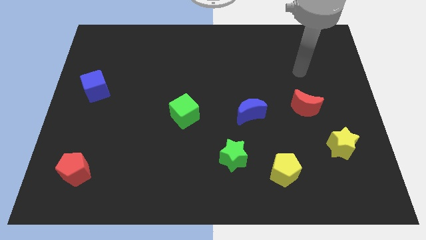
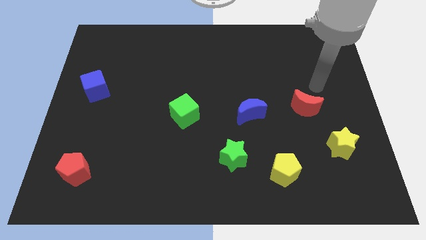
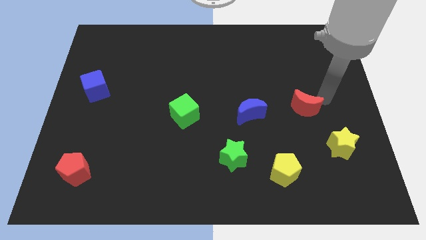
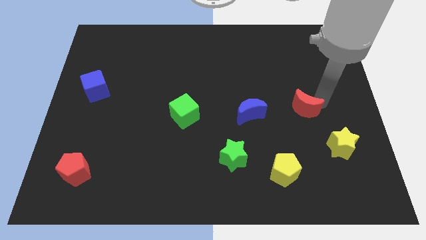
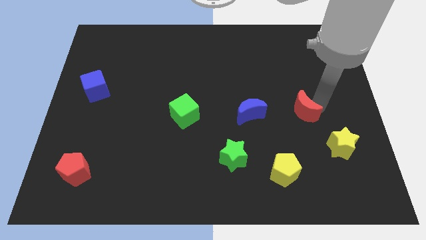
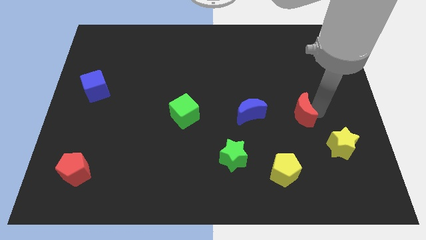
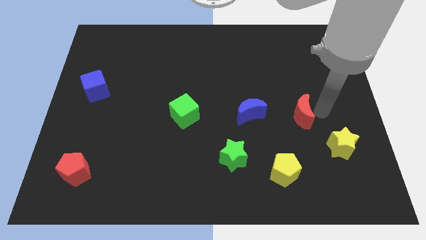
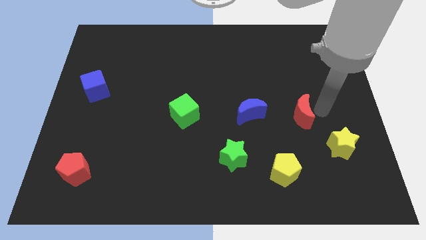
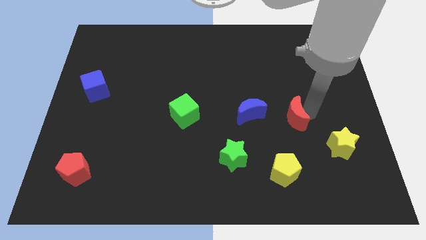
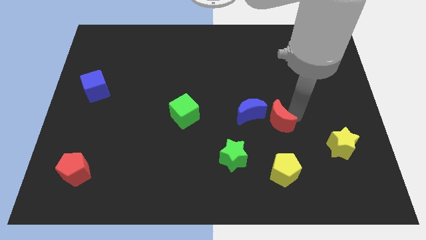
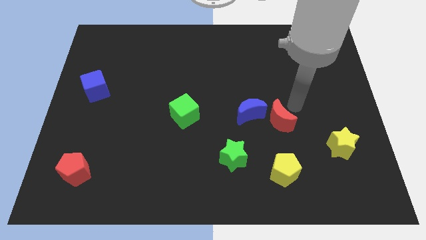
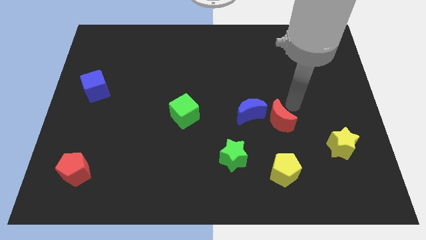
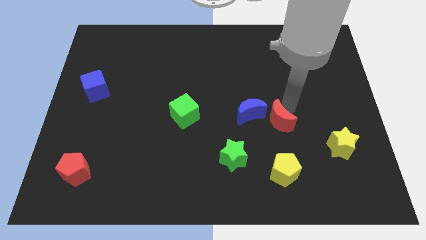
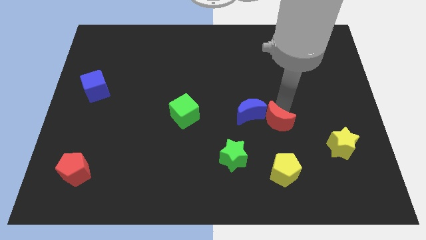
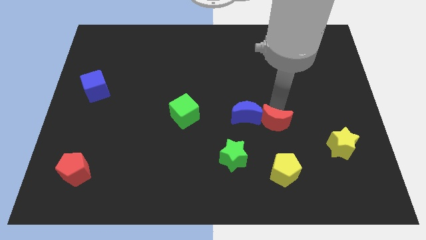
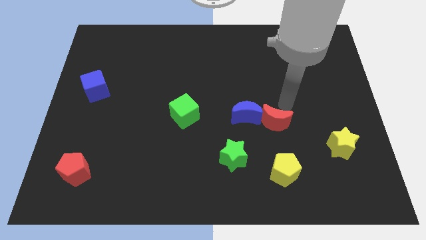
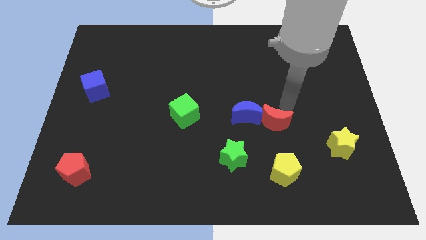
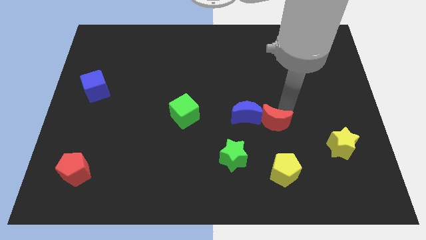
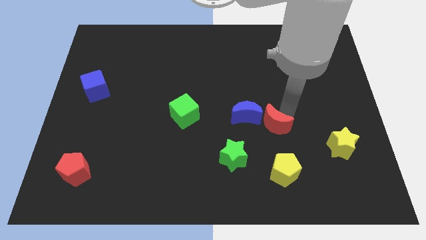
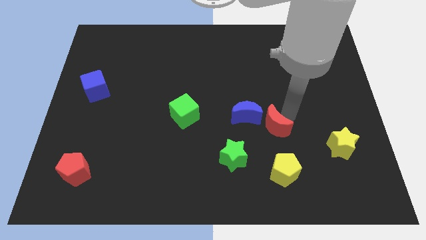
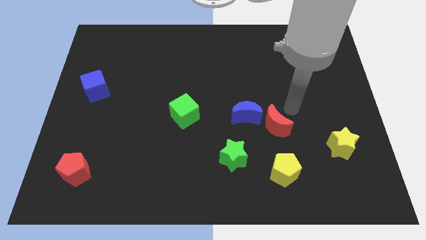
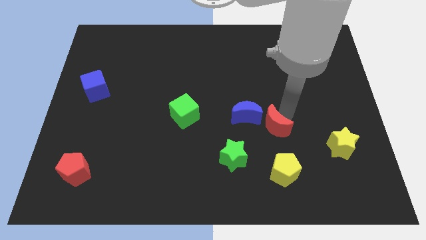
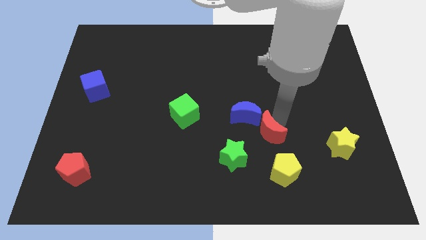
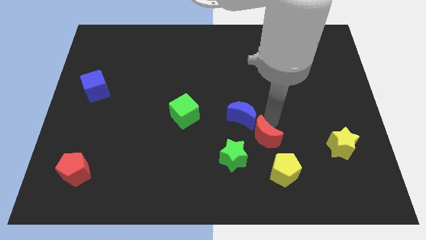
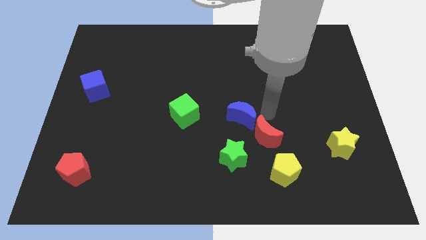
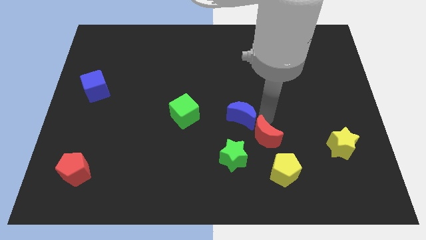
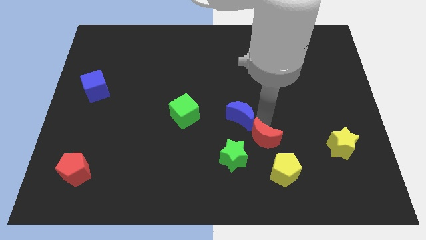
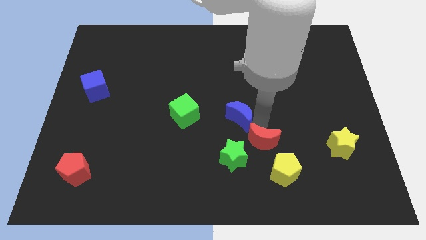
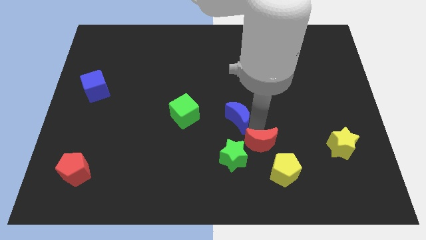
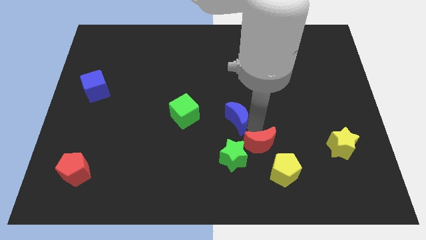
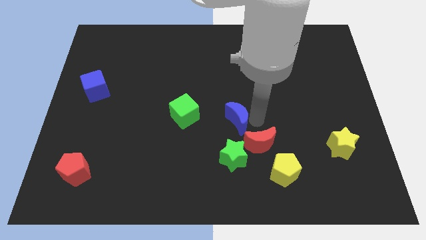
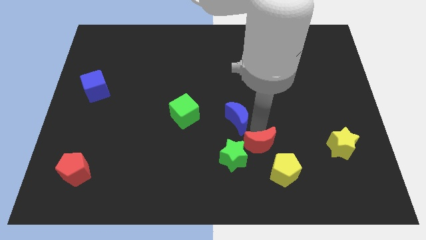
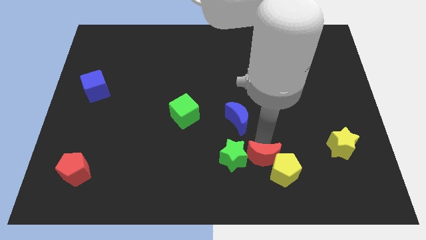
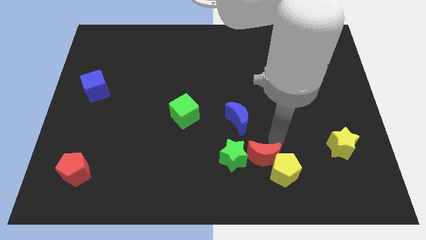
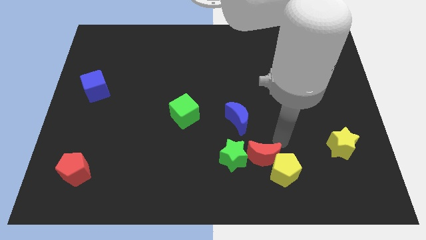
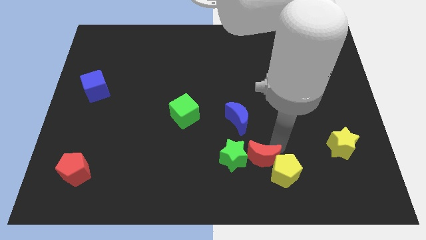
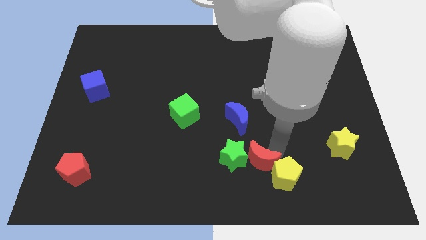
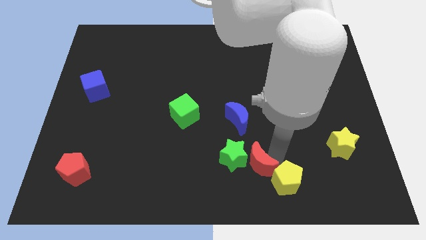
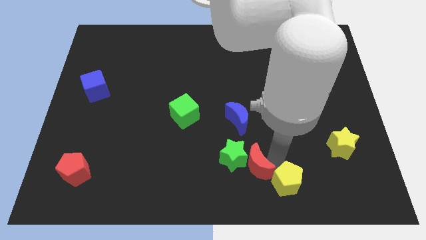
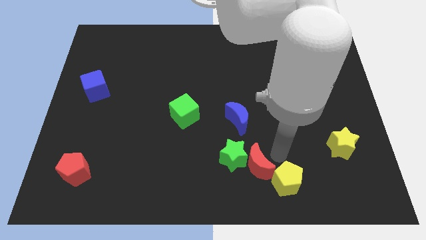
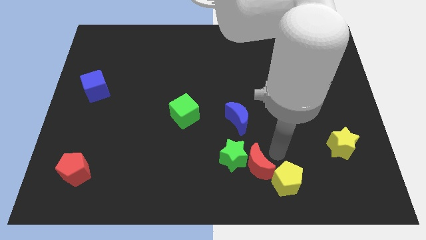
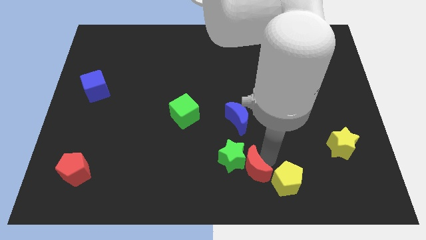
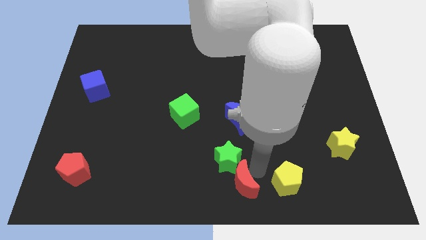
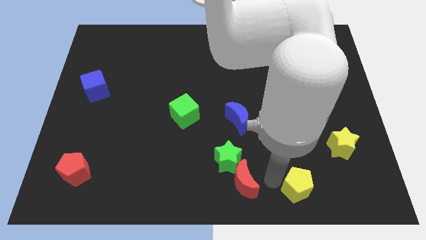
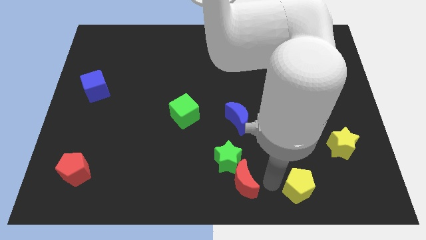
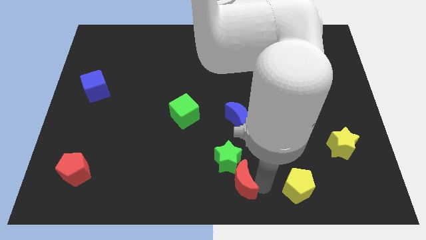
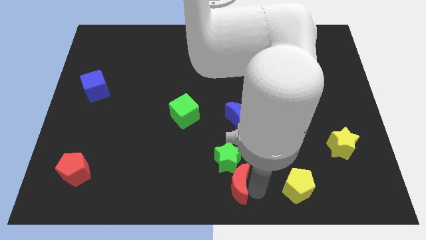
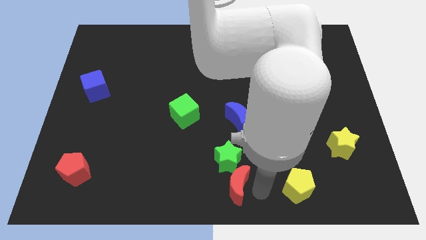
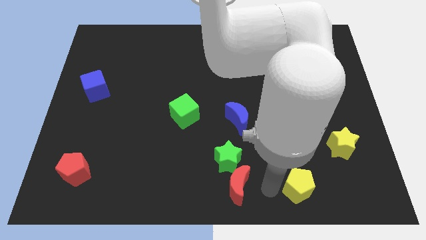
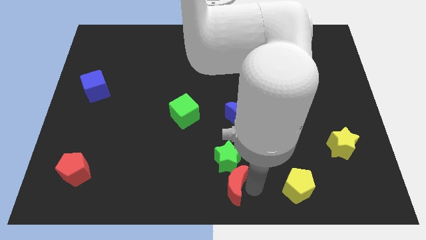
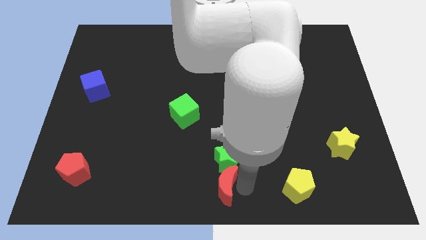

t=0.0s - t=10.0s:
move the red moon to the bottom left side of the green star

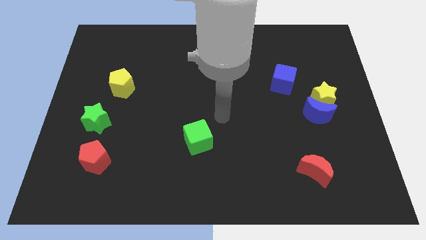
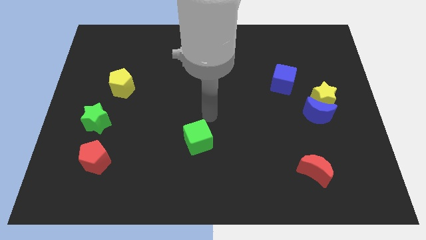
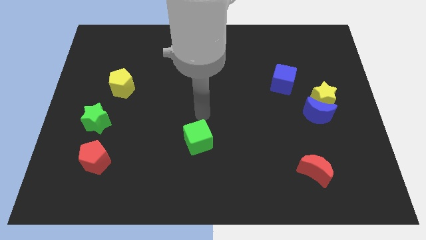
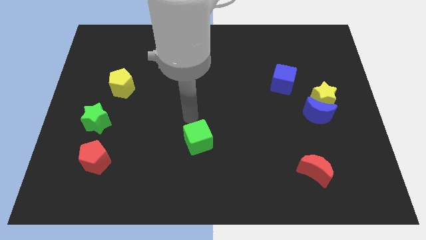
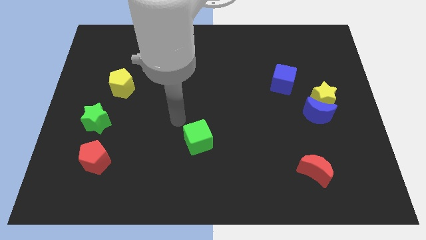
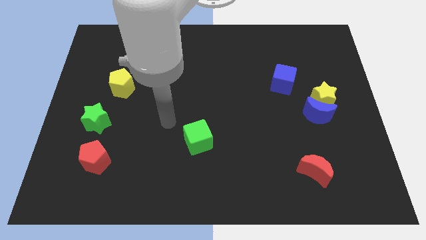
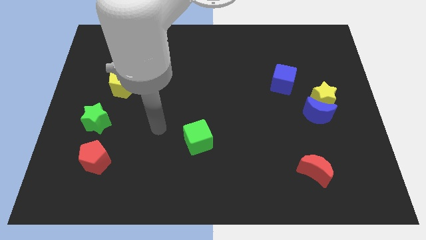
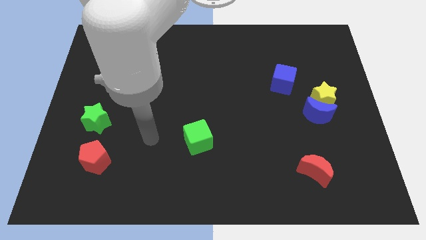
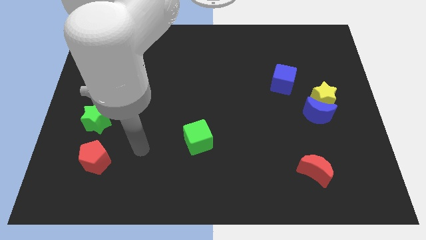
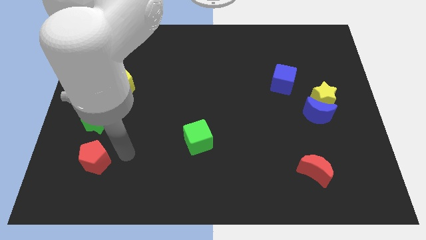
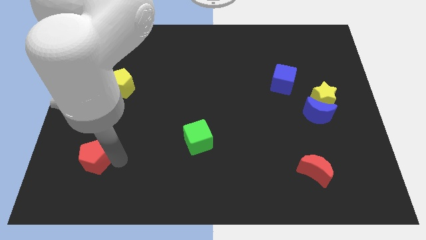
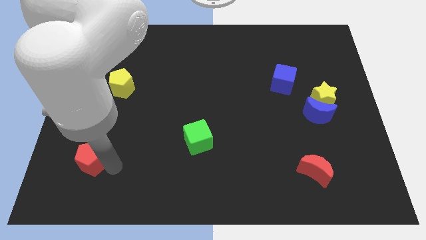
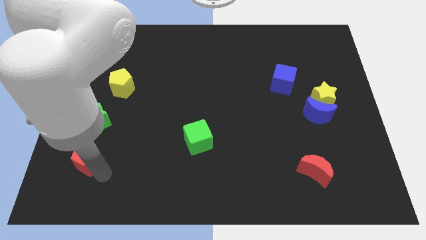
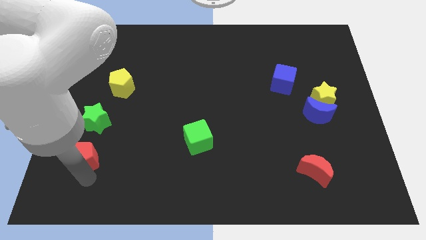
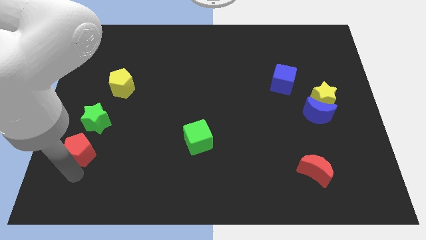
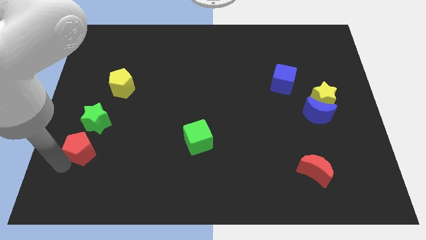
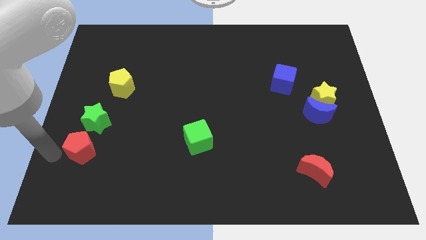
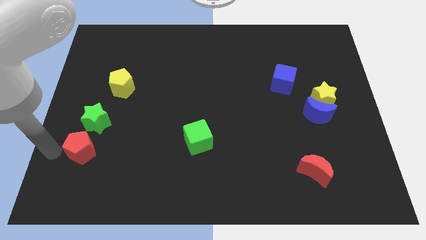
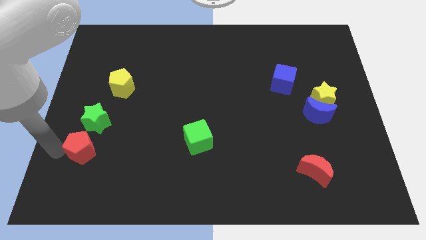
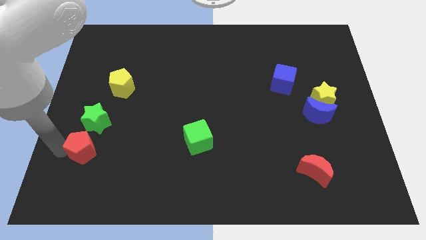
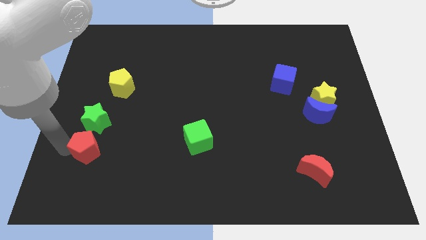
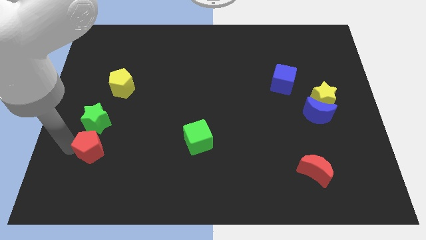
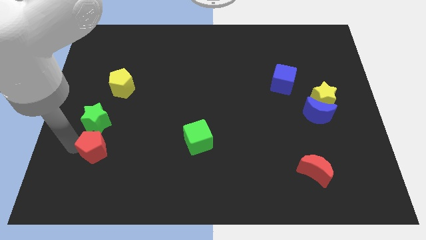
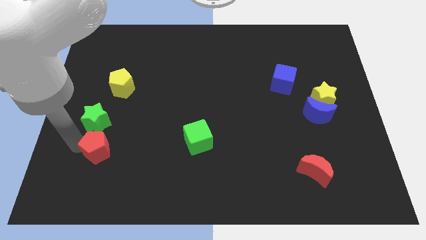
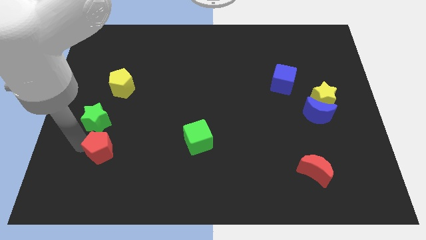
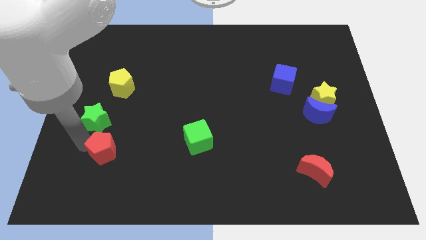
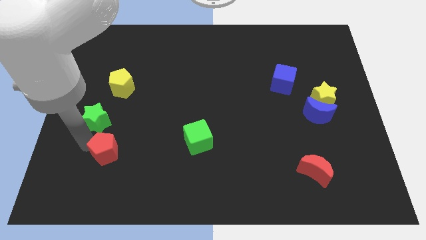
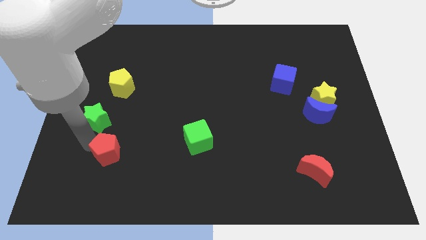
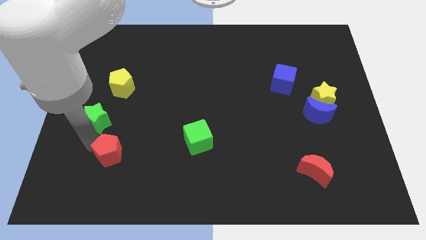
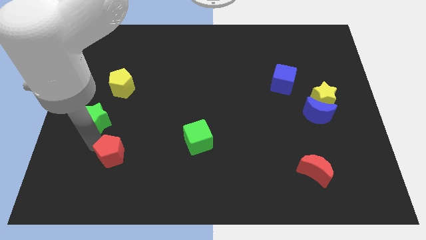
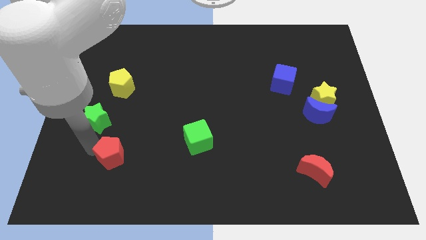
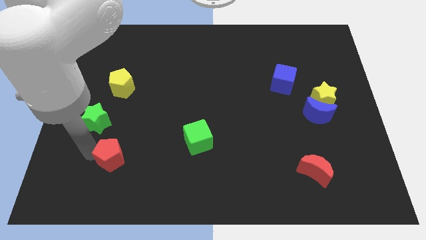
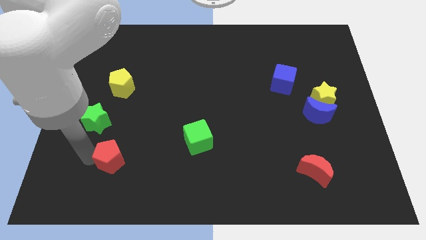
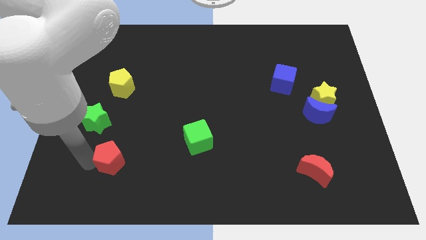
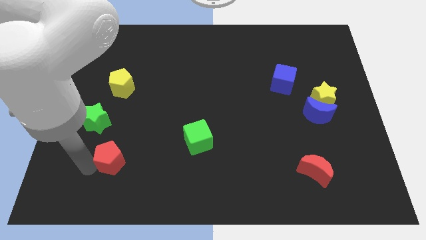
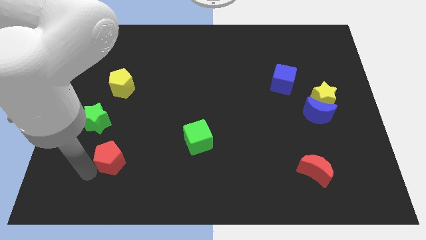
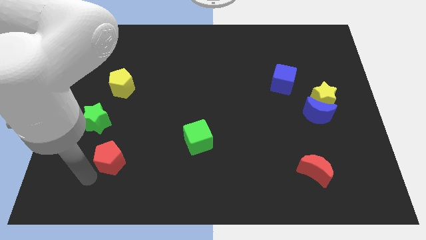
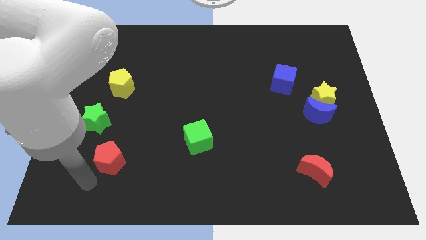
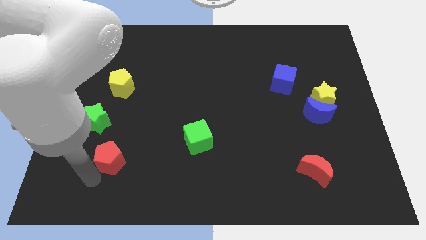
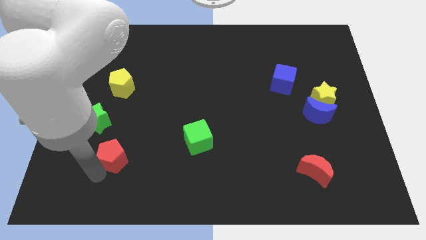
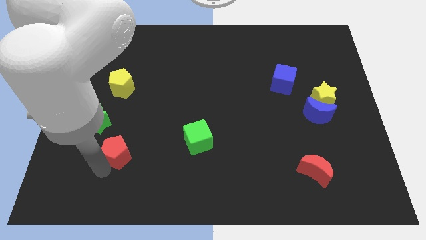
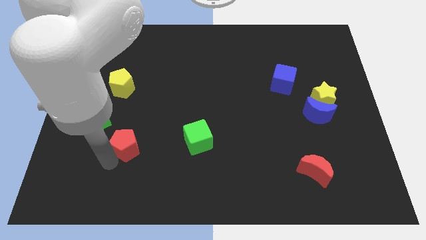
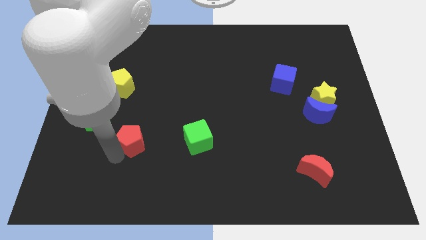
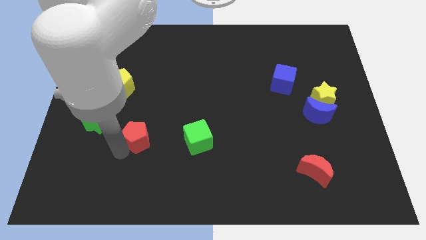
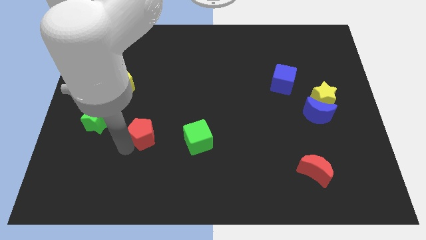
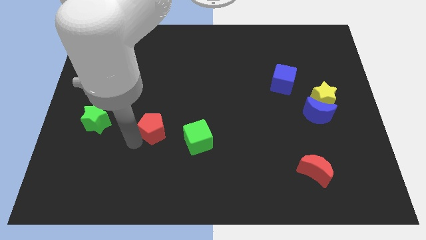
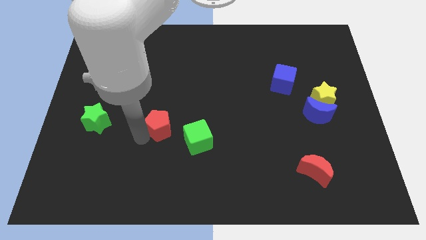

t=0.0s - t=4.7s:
slide the red pentagon to the top left side of the green cube
